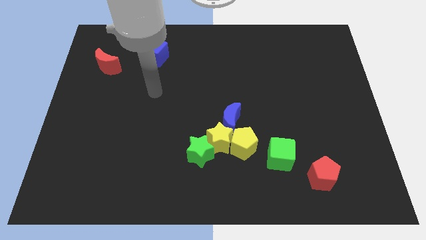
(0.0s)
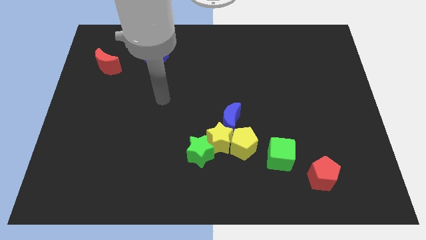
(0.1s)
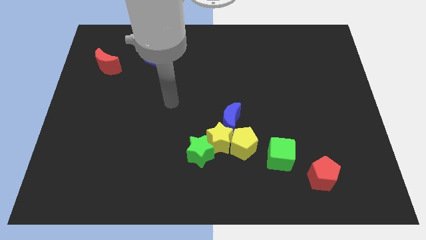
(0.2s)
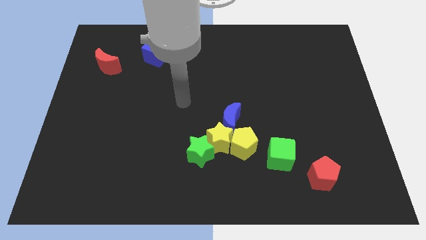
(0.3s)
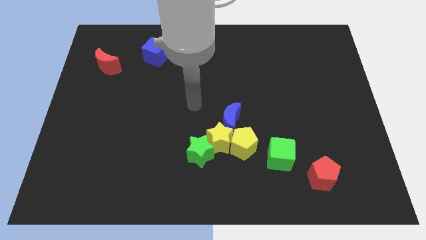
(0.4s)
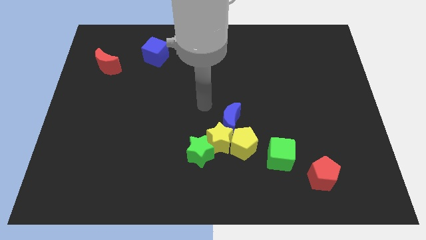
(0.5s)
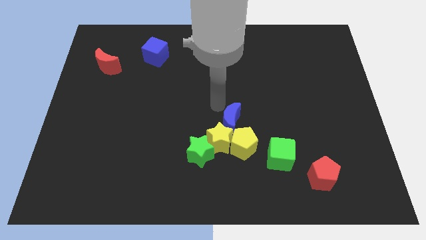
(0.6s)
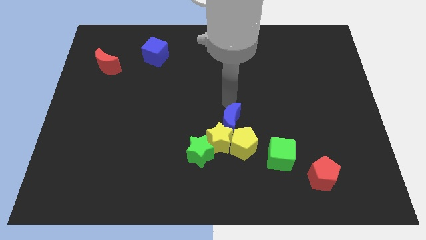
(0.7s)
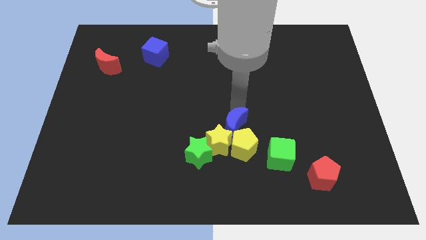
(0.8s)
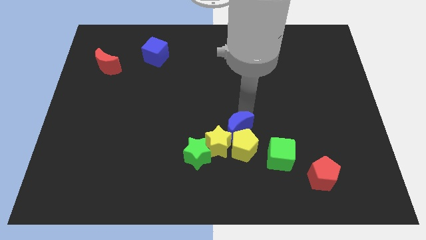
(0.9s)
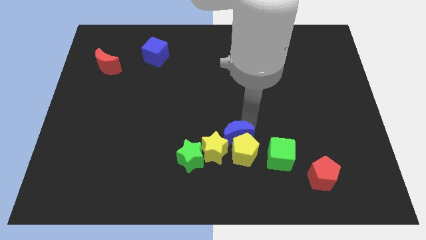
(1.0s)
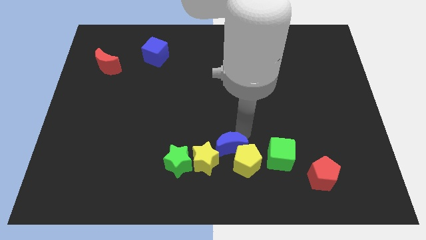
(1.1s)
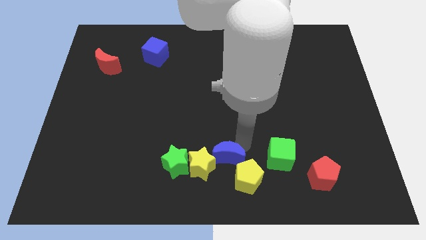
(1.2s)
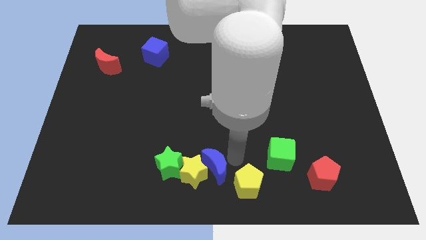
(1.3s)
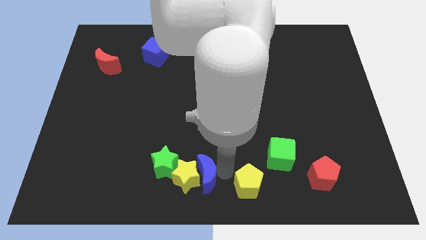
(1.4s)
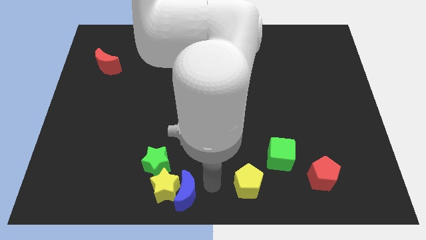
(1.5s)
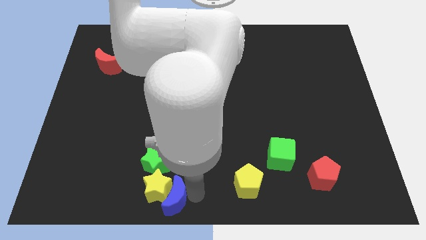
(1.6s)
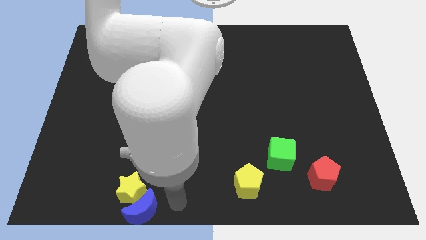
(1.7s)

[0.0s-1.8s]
move the yellow star away from the green star, yellow pentagon, and blue moon

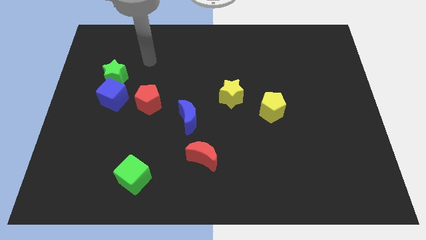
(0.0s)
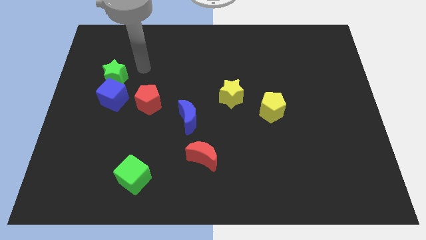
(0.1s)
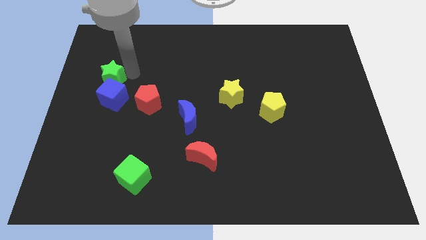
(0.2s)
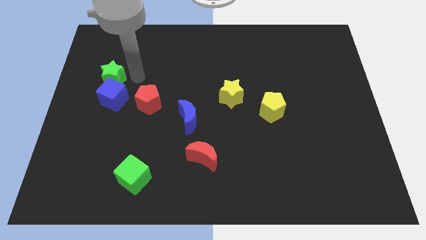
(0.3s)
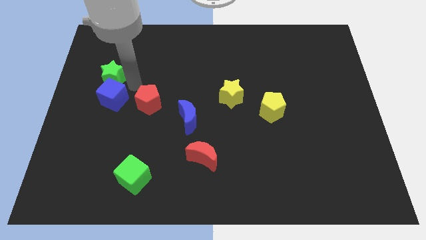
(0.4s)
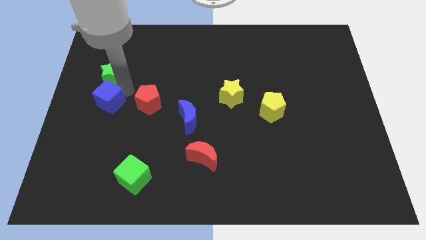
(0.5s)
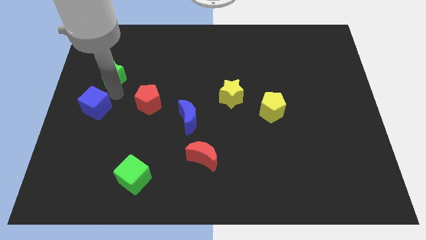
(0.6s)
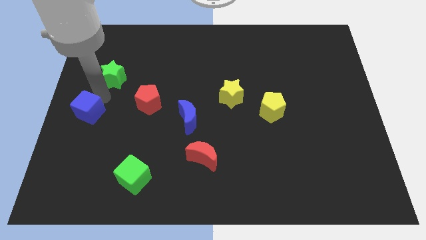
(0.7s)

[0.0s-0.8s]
pull the green star apart from the blue cube

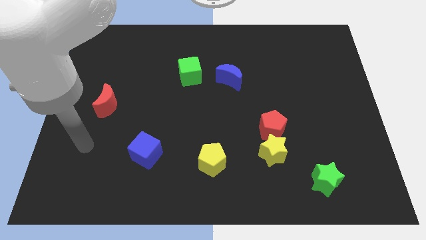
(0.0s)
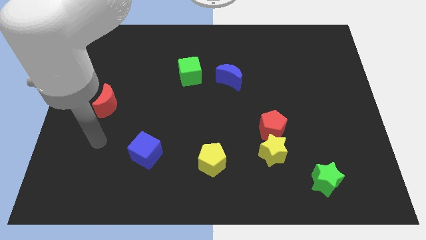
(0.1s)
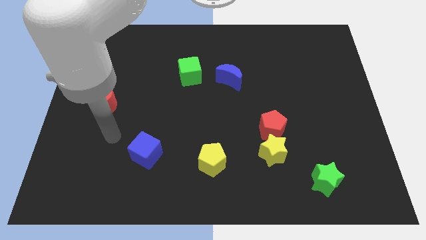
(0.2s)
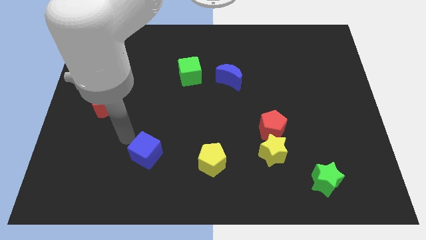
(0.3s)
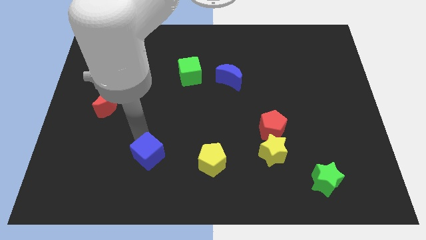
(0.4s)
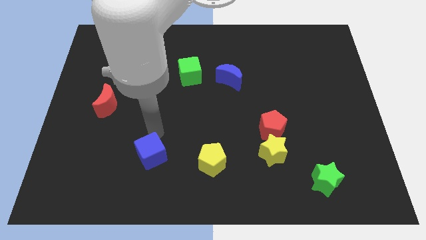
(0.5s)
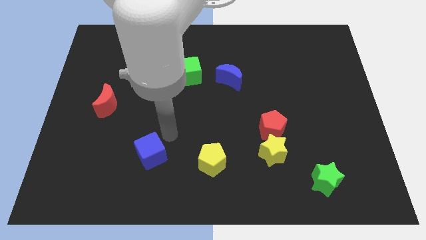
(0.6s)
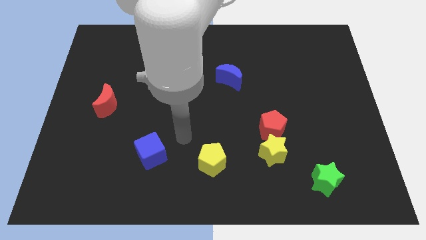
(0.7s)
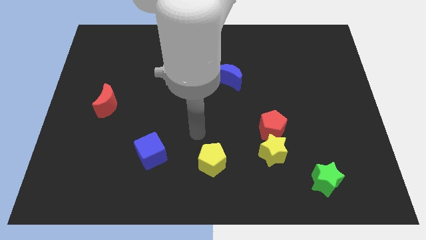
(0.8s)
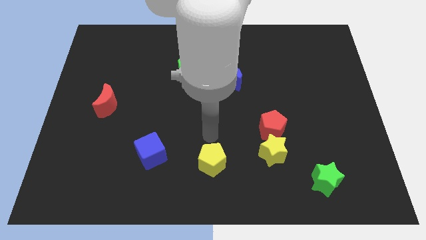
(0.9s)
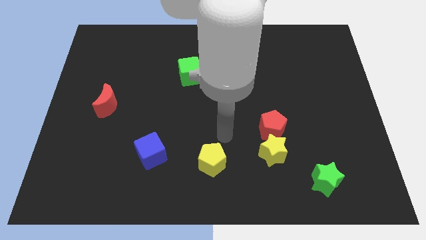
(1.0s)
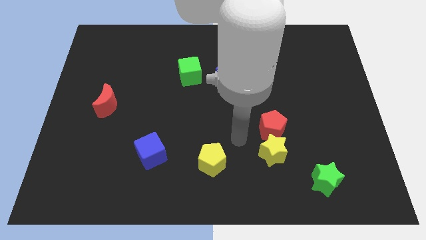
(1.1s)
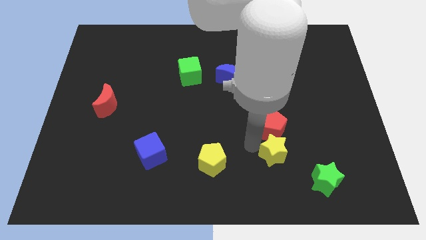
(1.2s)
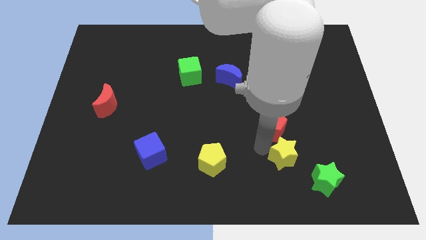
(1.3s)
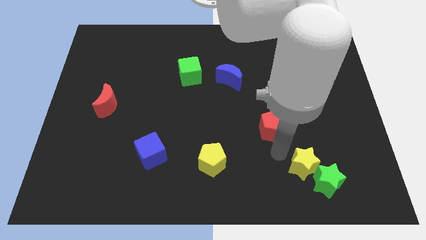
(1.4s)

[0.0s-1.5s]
pull the red pentagon apart from the yellow star

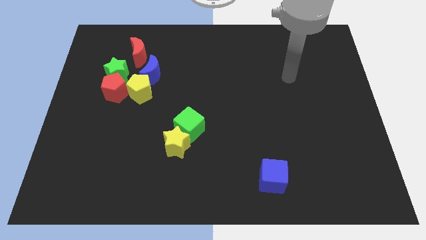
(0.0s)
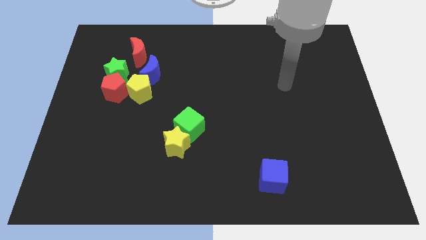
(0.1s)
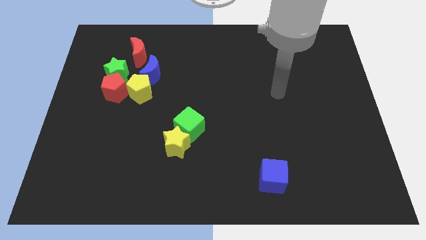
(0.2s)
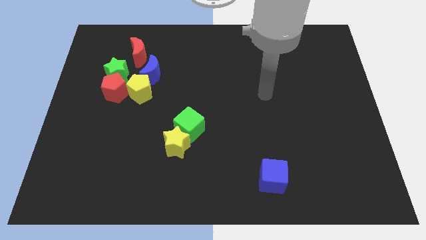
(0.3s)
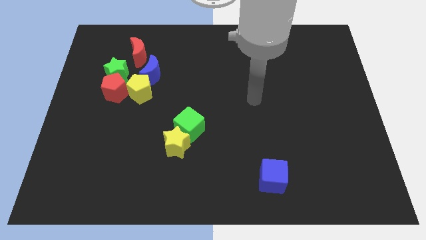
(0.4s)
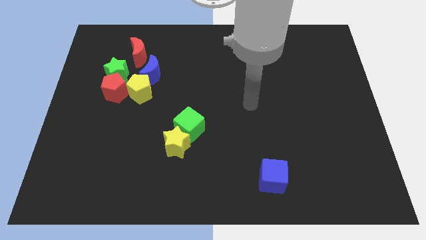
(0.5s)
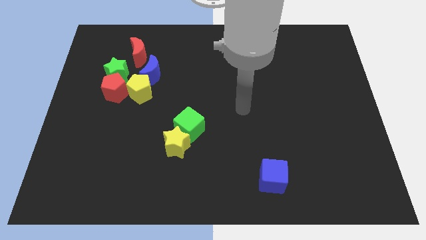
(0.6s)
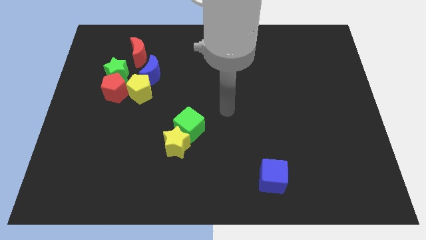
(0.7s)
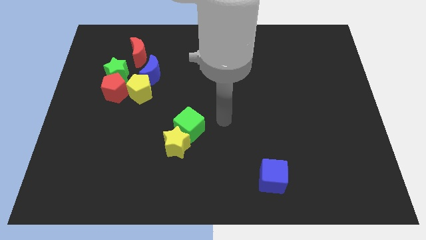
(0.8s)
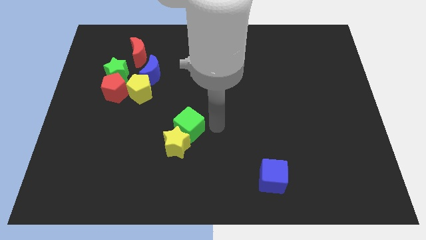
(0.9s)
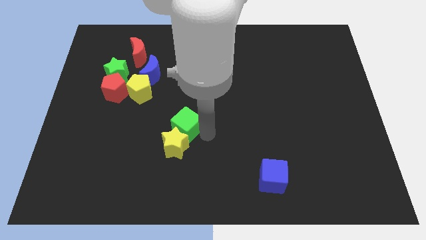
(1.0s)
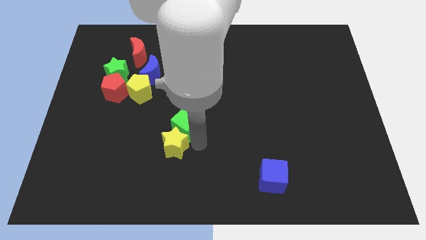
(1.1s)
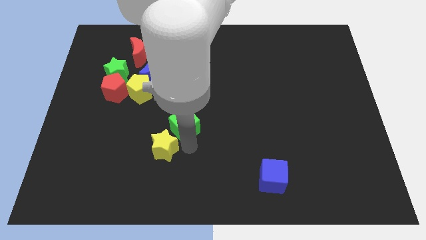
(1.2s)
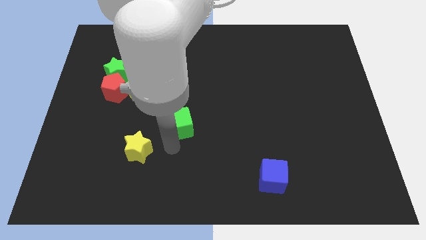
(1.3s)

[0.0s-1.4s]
separate the green cube from the yellow star

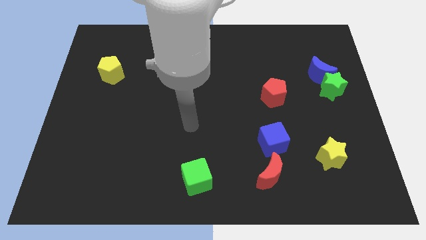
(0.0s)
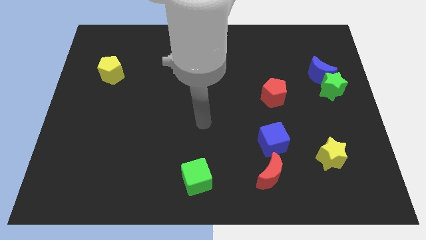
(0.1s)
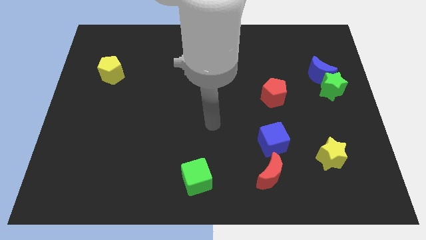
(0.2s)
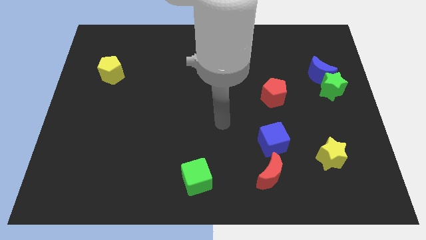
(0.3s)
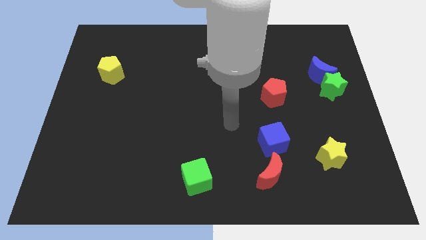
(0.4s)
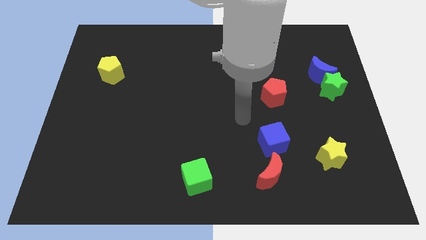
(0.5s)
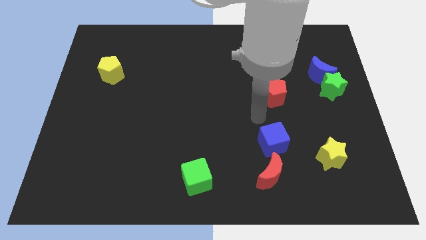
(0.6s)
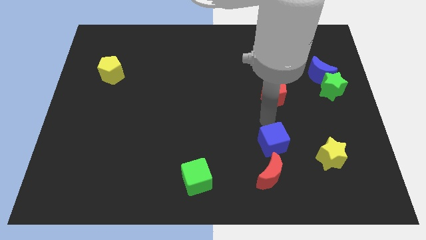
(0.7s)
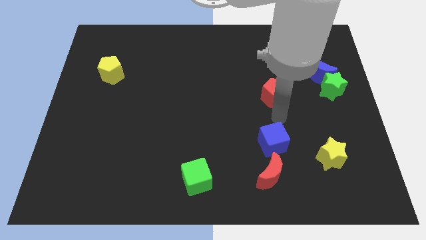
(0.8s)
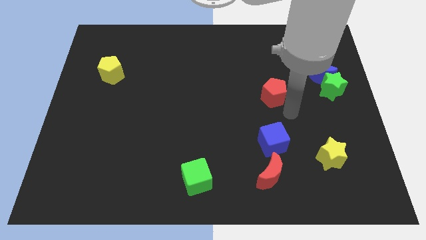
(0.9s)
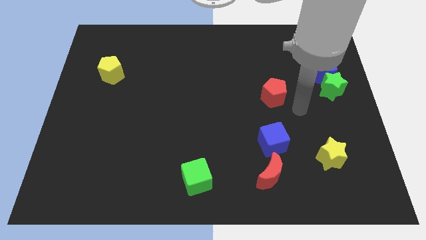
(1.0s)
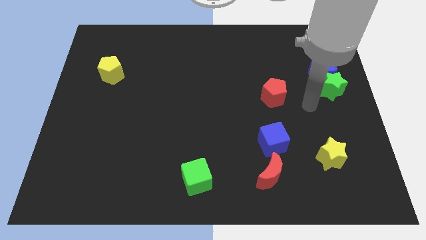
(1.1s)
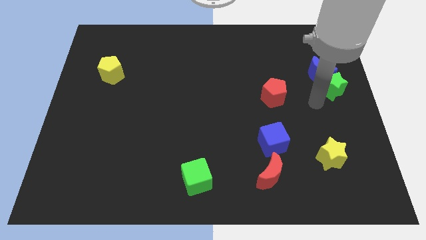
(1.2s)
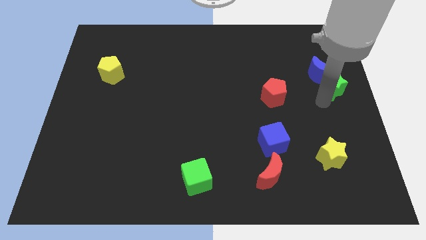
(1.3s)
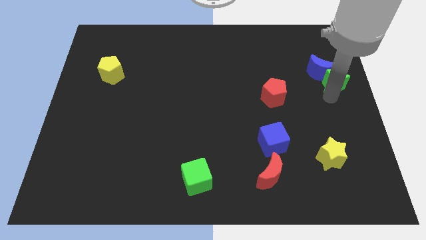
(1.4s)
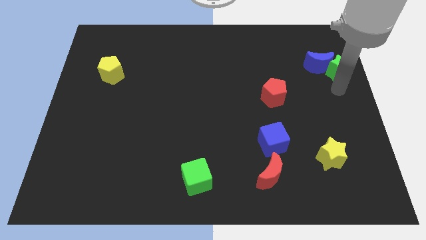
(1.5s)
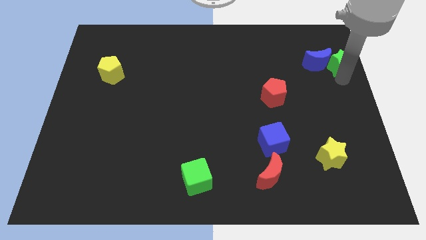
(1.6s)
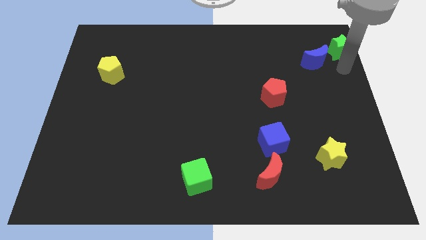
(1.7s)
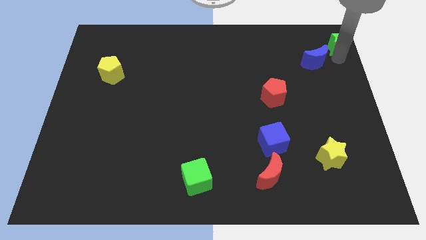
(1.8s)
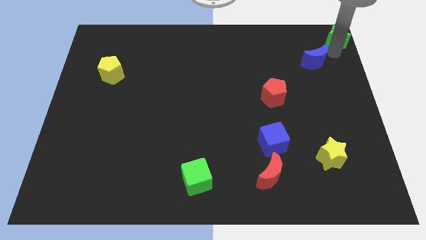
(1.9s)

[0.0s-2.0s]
separate the blue moon from the green star

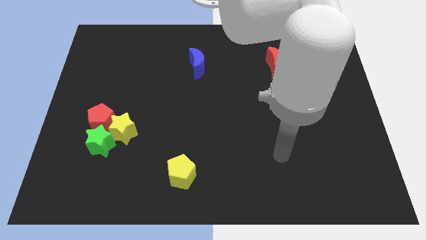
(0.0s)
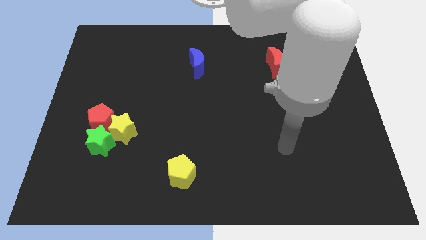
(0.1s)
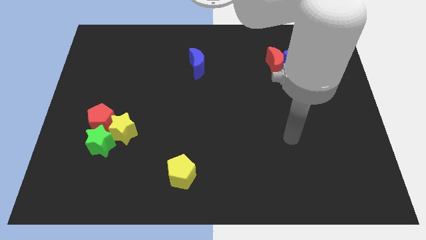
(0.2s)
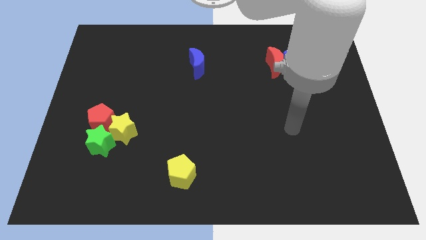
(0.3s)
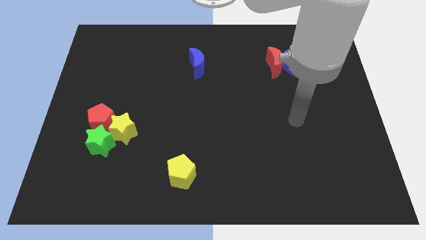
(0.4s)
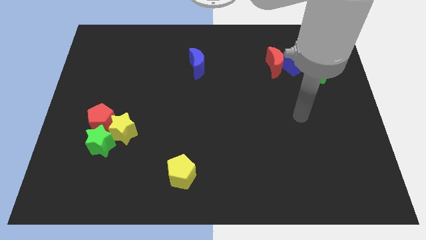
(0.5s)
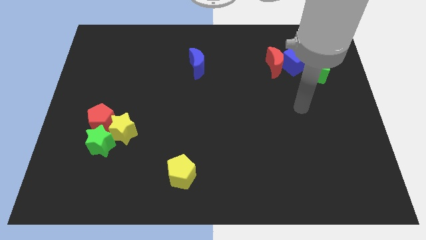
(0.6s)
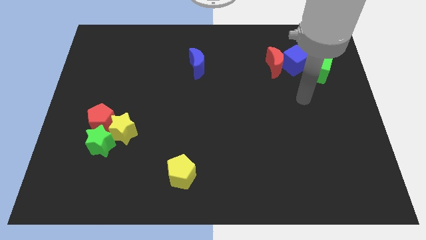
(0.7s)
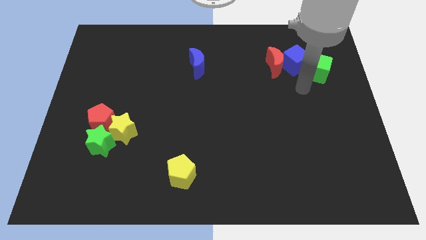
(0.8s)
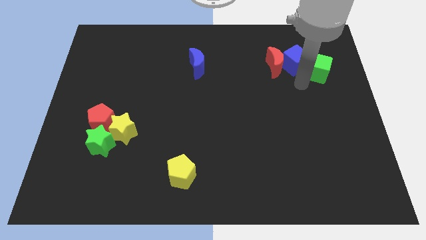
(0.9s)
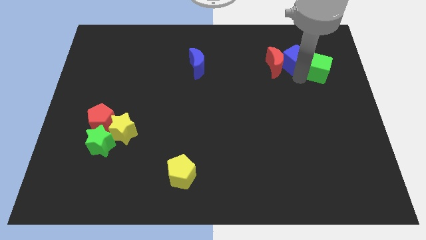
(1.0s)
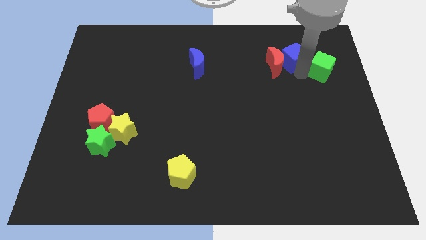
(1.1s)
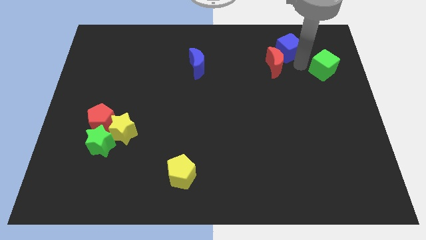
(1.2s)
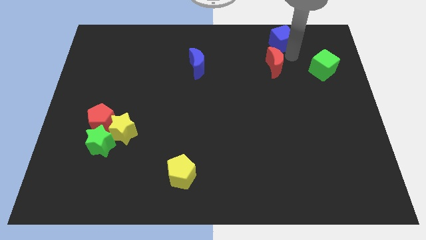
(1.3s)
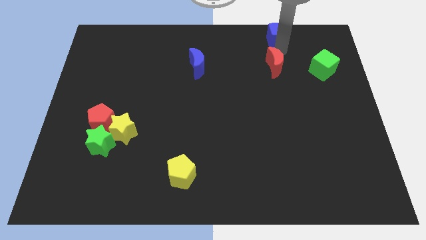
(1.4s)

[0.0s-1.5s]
pull the red moon apart from the blue cube

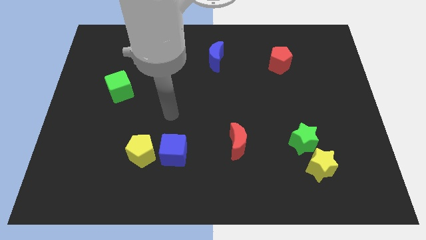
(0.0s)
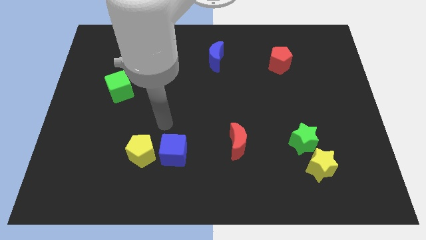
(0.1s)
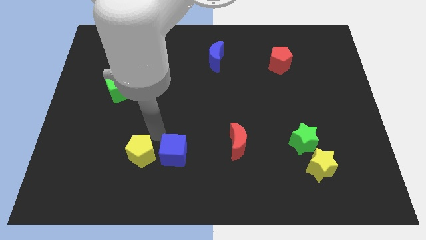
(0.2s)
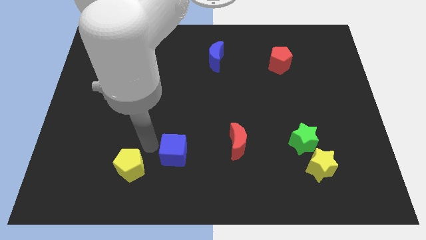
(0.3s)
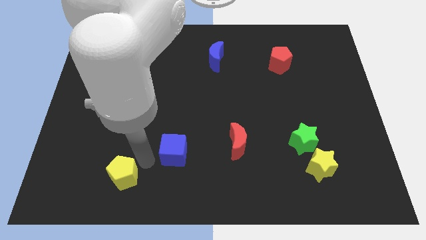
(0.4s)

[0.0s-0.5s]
separate the blue cube from the yellow pentagon
